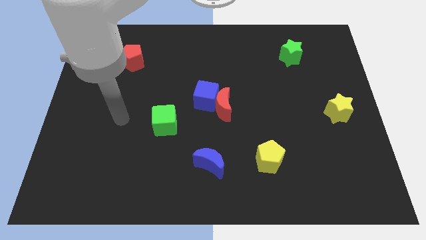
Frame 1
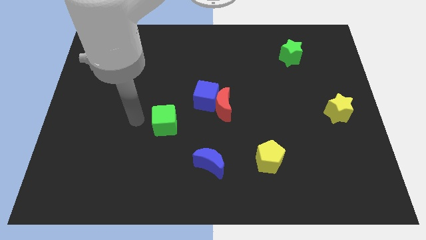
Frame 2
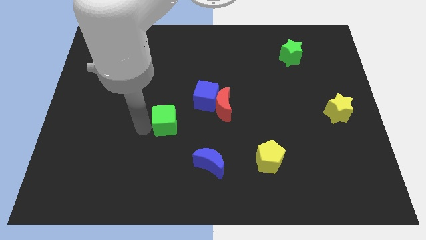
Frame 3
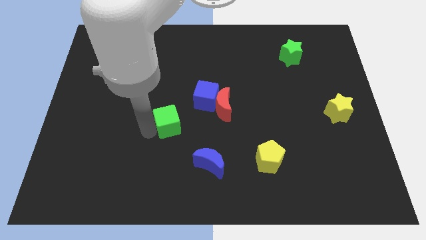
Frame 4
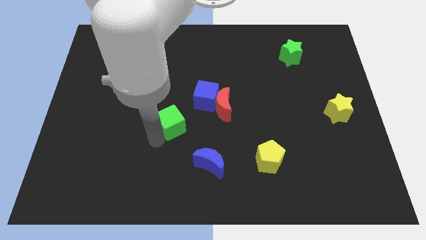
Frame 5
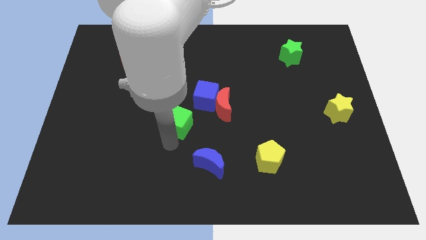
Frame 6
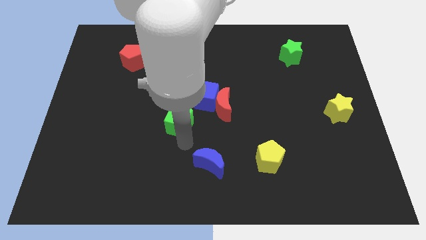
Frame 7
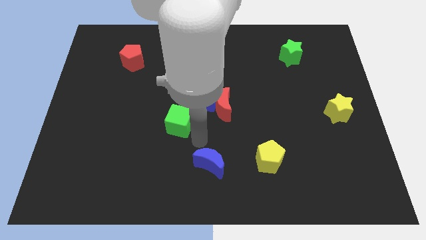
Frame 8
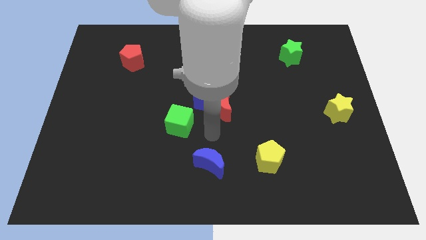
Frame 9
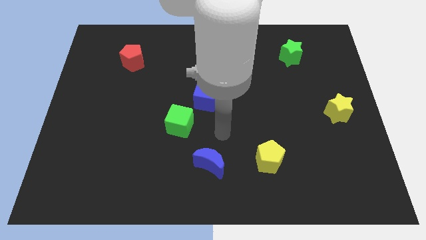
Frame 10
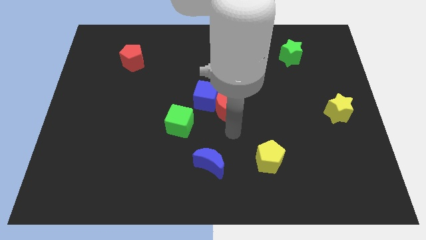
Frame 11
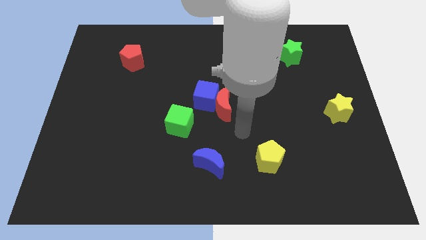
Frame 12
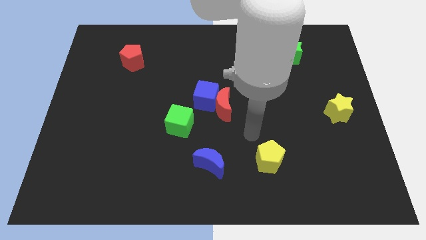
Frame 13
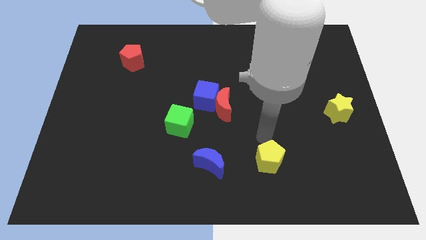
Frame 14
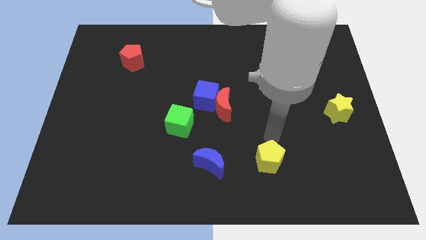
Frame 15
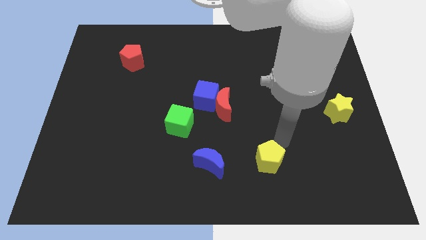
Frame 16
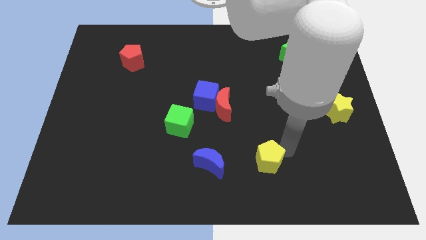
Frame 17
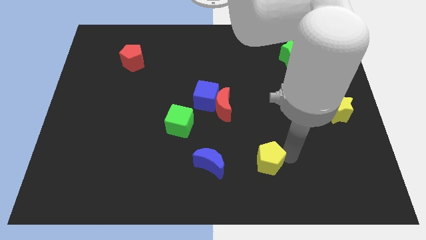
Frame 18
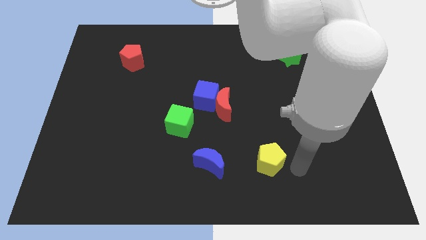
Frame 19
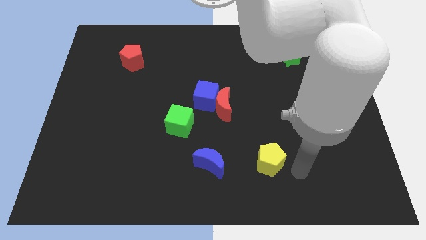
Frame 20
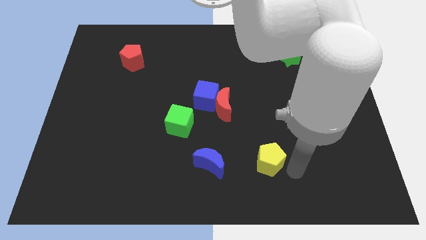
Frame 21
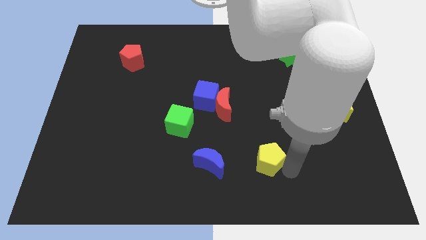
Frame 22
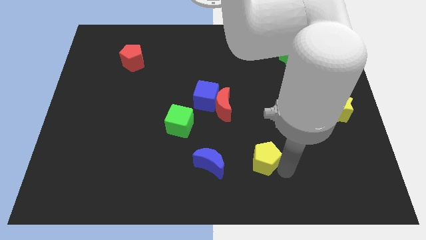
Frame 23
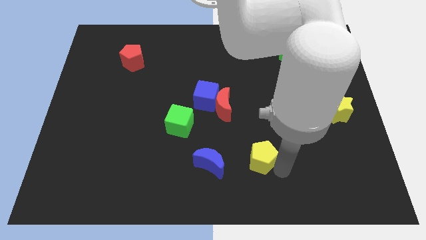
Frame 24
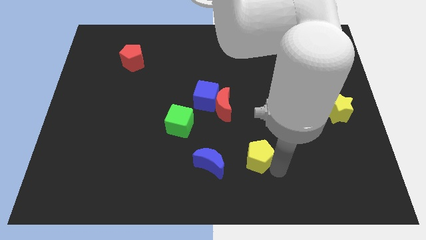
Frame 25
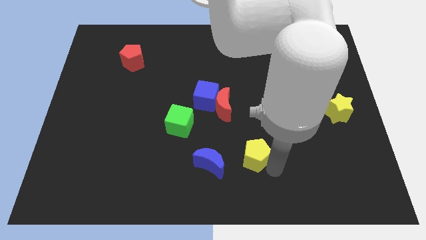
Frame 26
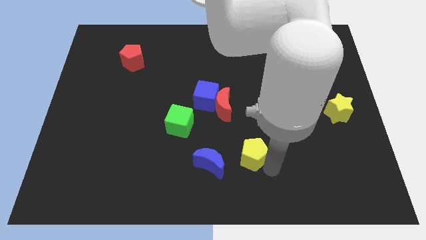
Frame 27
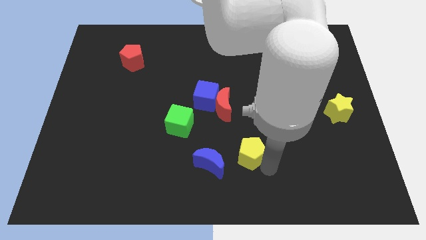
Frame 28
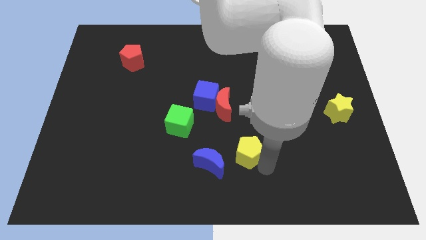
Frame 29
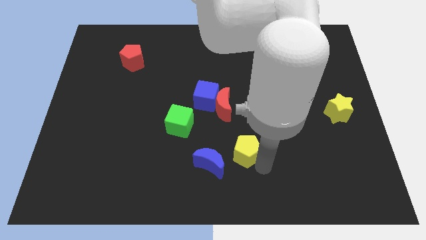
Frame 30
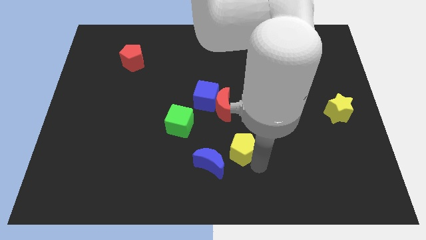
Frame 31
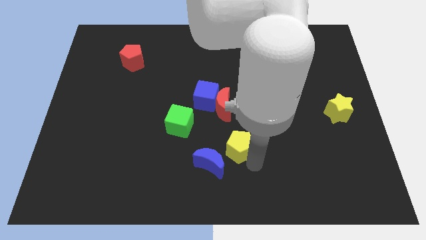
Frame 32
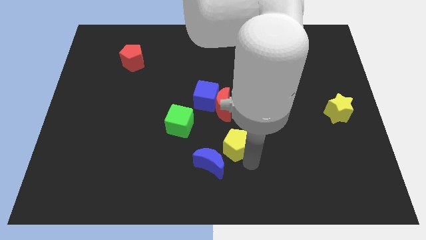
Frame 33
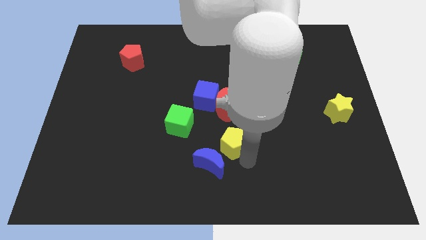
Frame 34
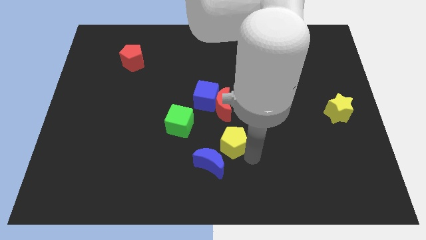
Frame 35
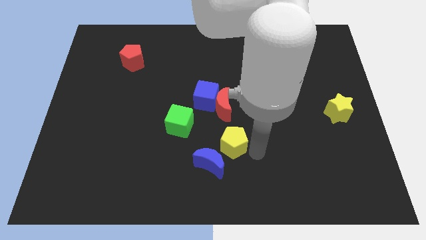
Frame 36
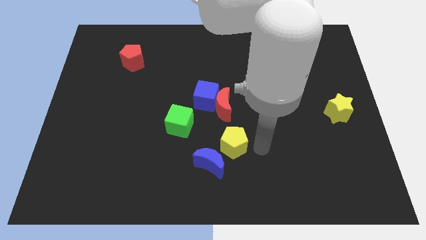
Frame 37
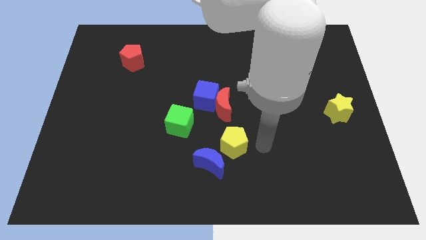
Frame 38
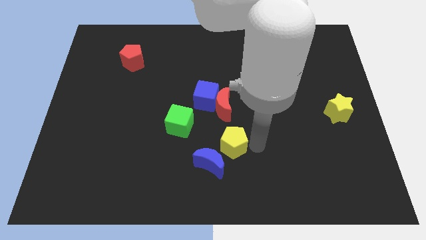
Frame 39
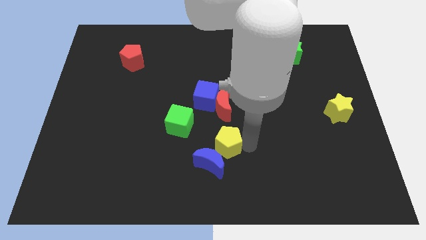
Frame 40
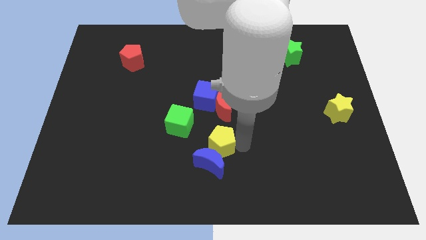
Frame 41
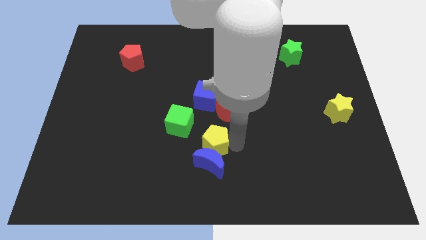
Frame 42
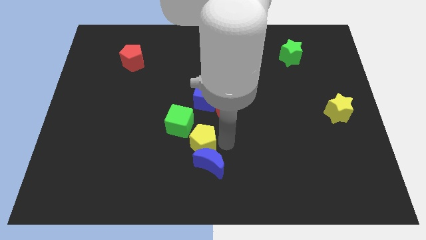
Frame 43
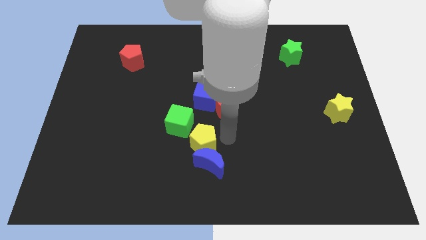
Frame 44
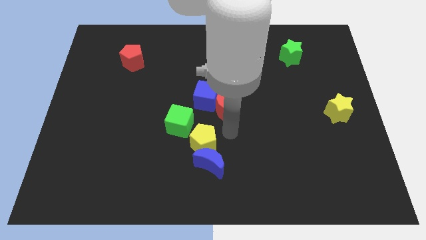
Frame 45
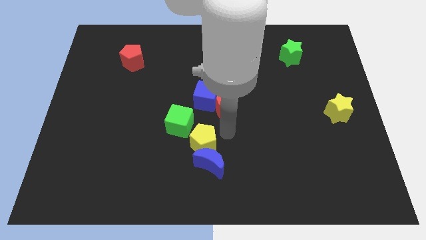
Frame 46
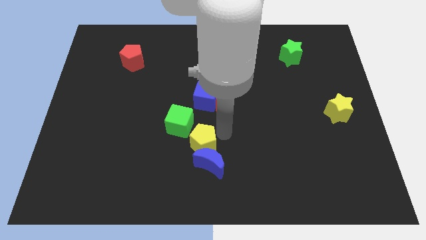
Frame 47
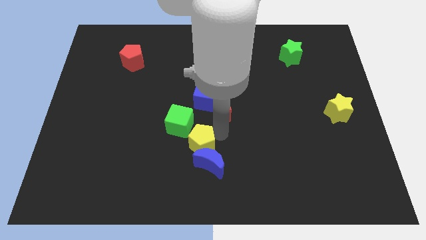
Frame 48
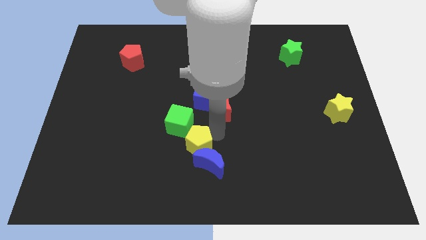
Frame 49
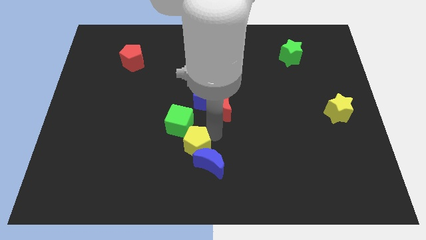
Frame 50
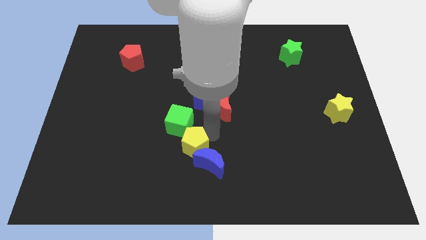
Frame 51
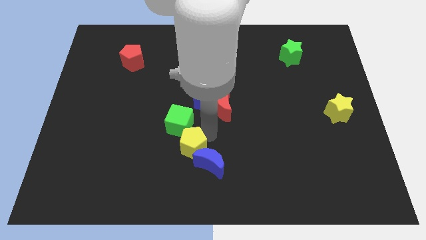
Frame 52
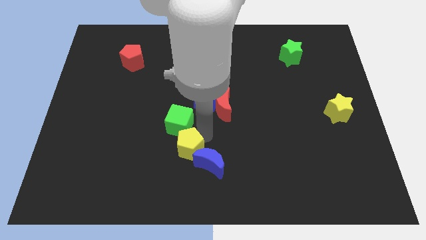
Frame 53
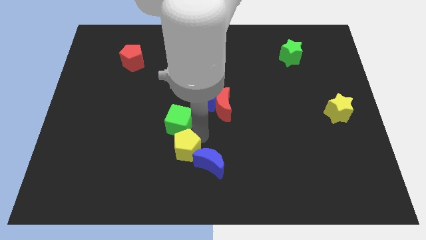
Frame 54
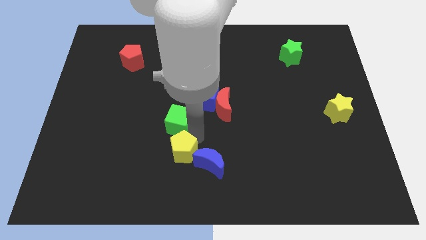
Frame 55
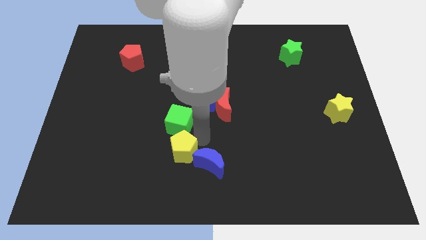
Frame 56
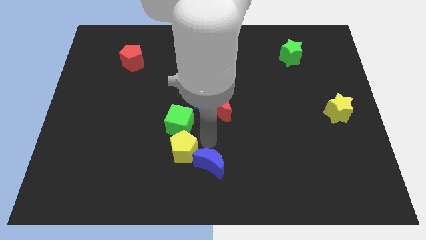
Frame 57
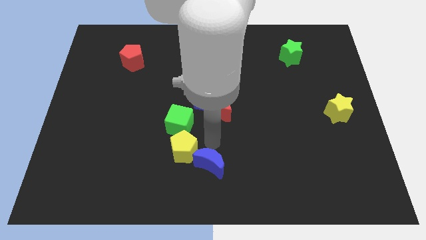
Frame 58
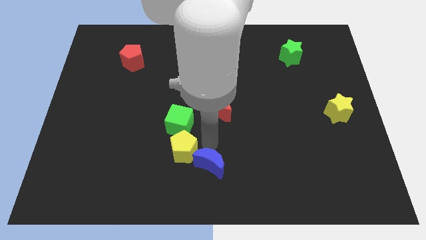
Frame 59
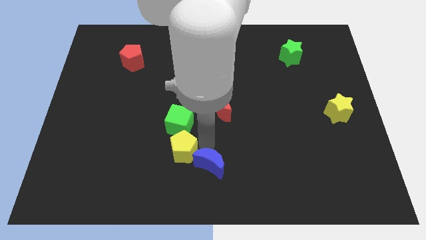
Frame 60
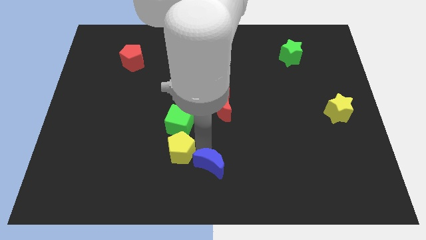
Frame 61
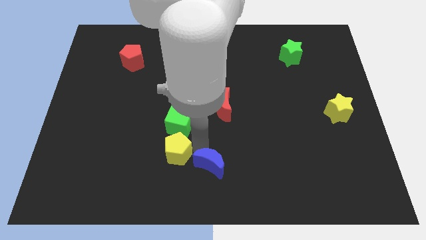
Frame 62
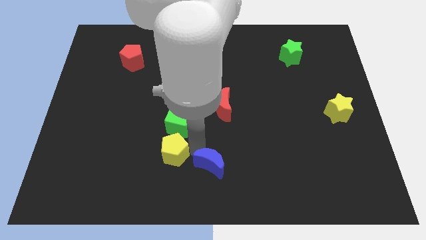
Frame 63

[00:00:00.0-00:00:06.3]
move the yellow pentagon left

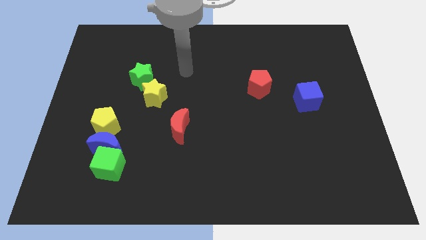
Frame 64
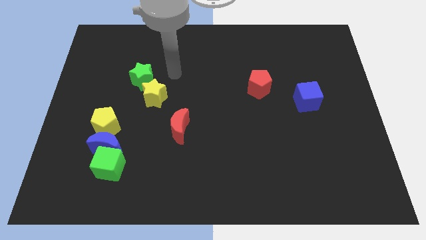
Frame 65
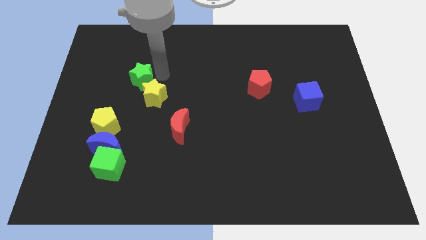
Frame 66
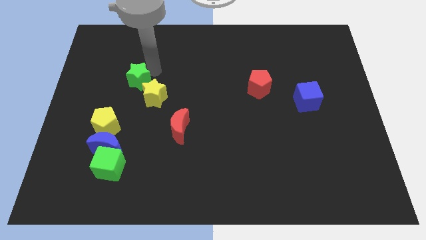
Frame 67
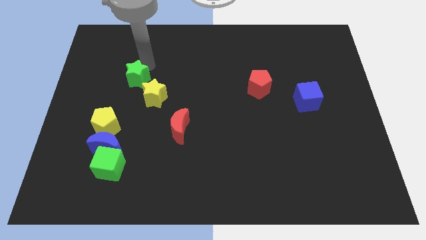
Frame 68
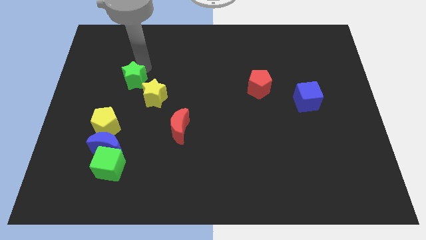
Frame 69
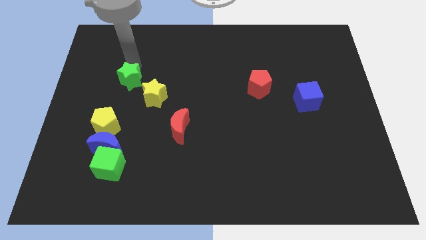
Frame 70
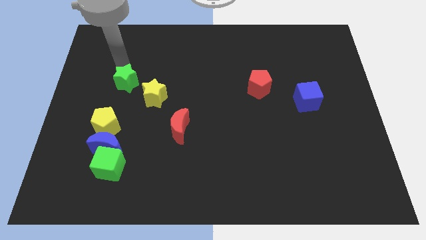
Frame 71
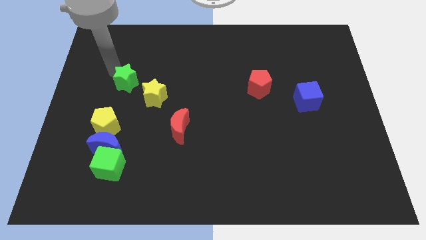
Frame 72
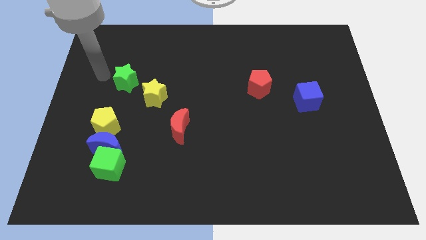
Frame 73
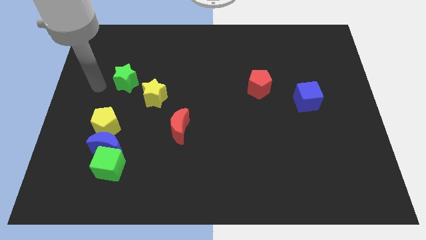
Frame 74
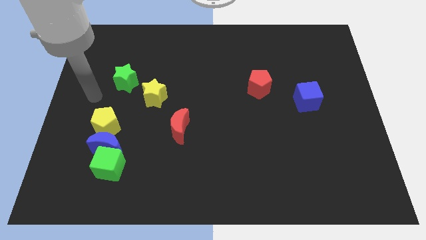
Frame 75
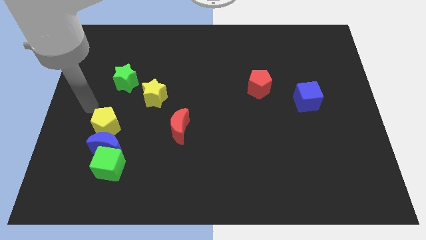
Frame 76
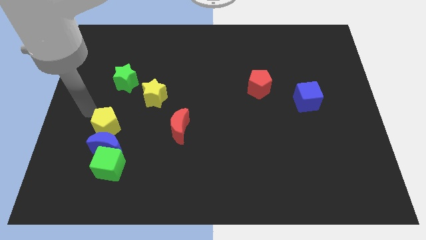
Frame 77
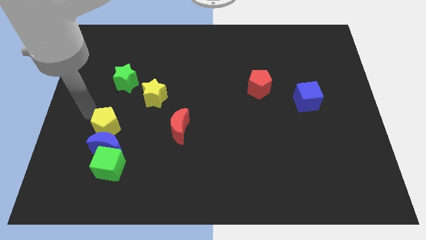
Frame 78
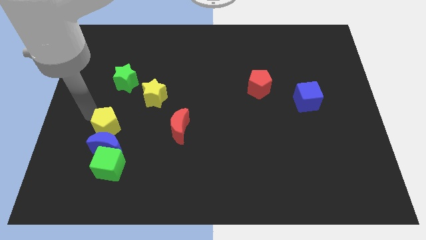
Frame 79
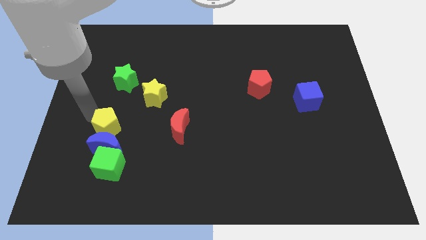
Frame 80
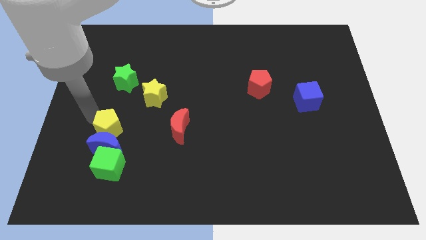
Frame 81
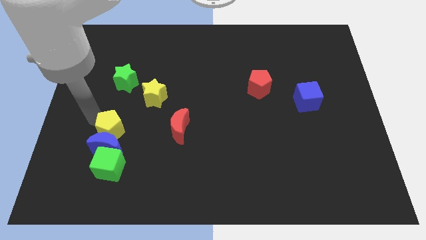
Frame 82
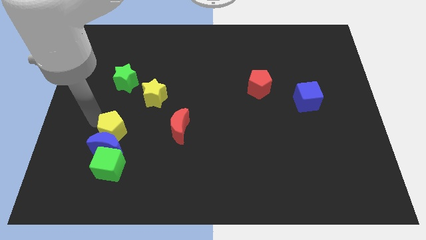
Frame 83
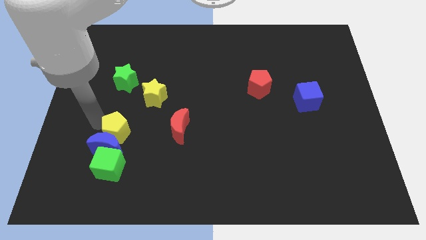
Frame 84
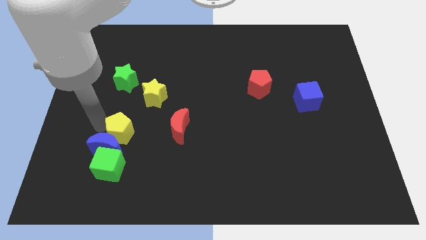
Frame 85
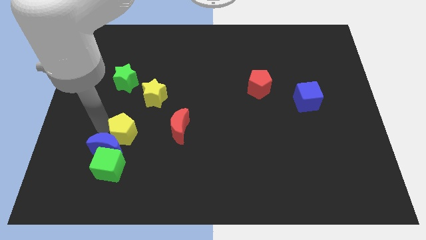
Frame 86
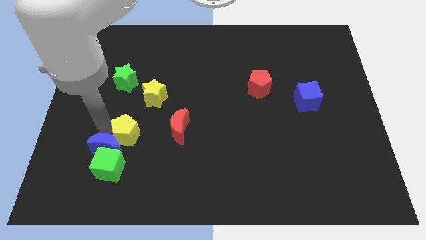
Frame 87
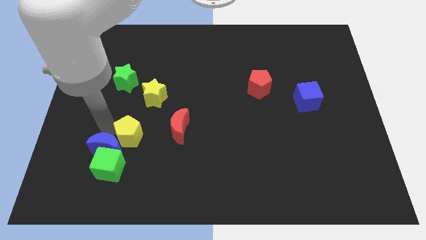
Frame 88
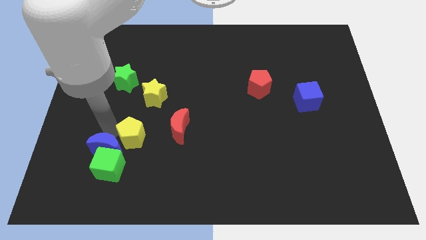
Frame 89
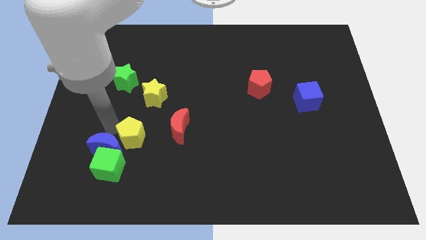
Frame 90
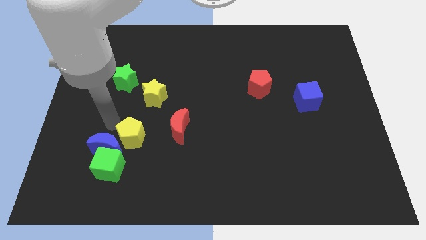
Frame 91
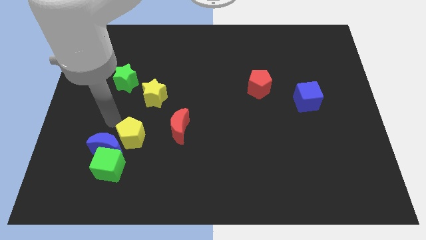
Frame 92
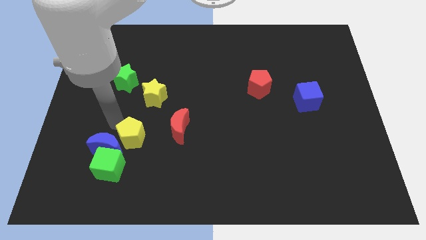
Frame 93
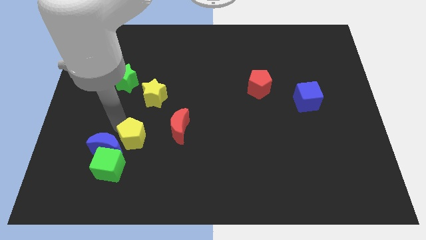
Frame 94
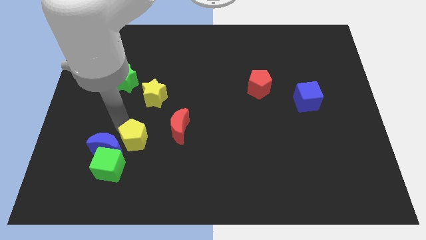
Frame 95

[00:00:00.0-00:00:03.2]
slightly slide the yellow pentagon downwards and then right
